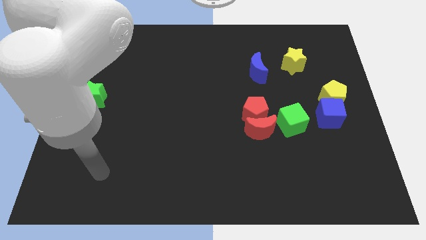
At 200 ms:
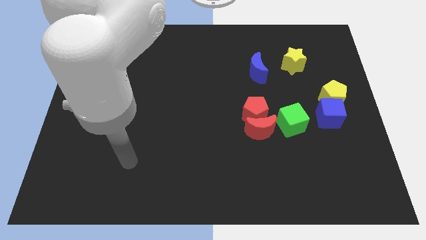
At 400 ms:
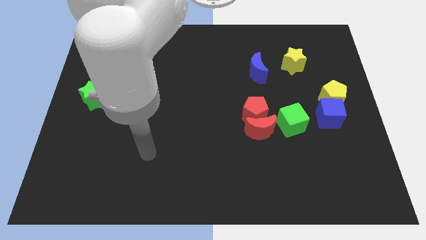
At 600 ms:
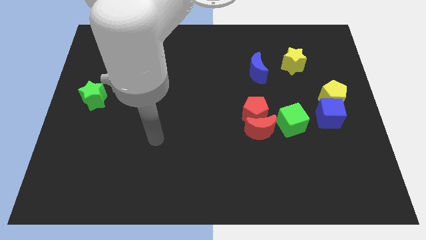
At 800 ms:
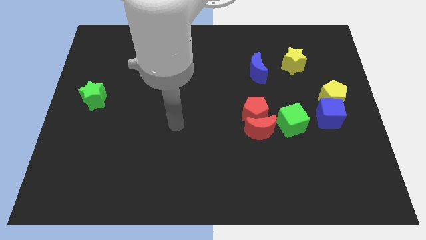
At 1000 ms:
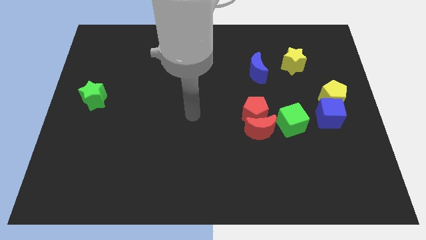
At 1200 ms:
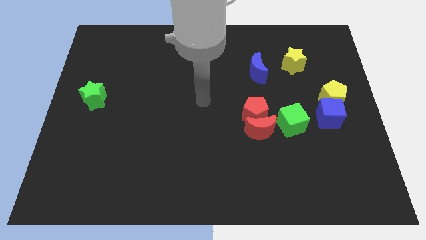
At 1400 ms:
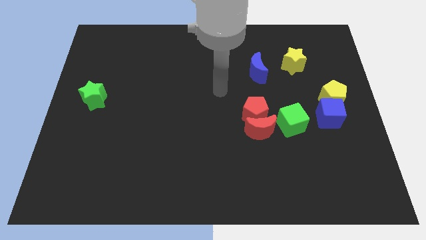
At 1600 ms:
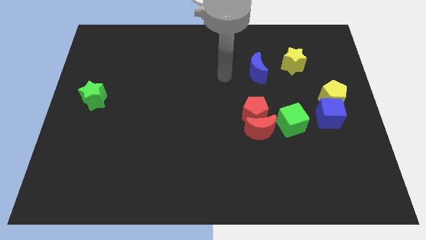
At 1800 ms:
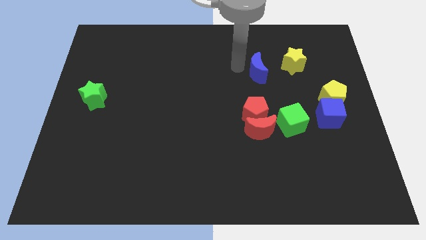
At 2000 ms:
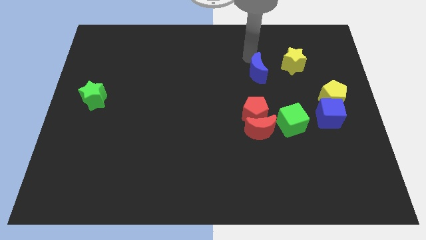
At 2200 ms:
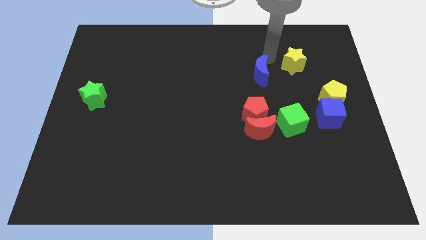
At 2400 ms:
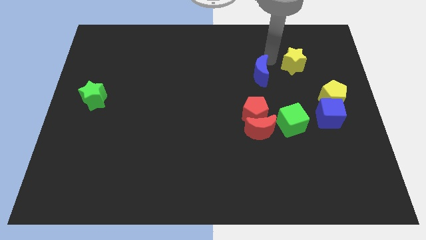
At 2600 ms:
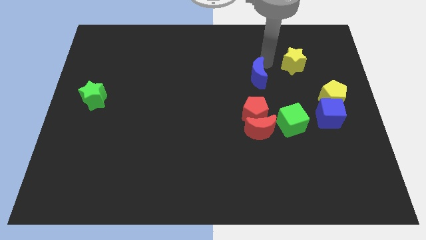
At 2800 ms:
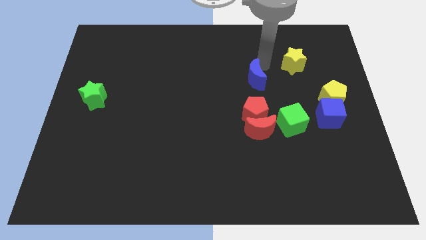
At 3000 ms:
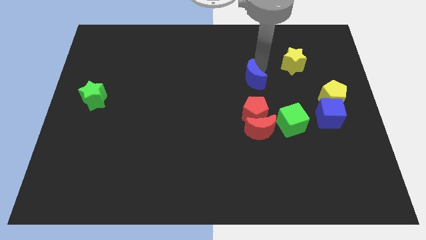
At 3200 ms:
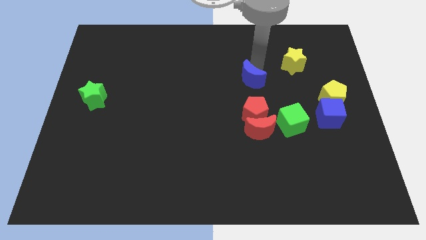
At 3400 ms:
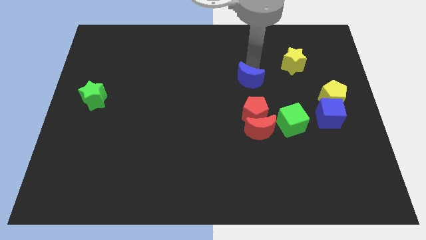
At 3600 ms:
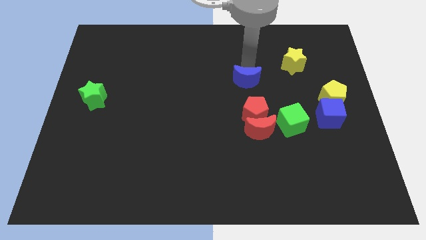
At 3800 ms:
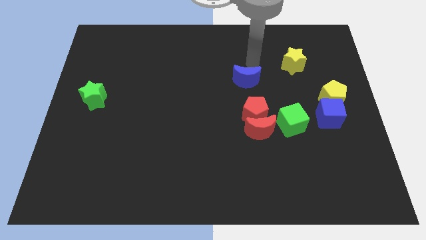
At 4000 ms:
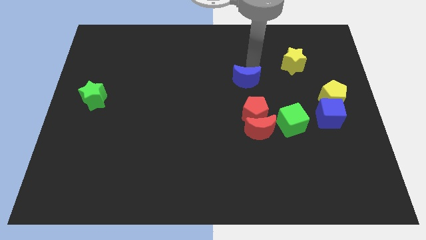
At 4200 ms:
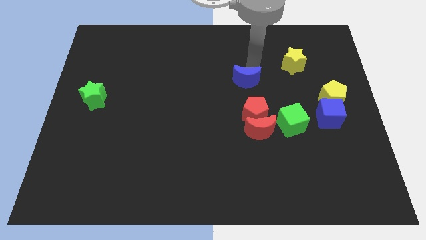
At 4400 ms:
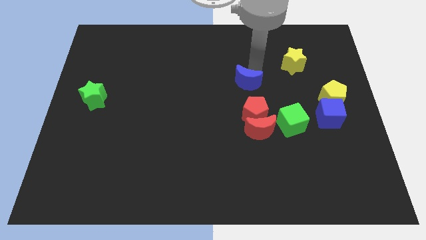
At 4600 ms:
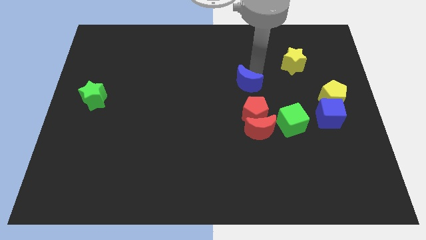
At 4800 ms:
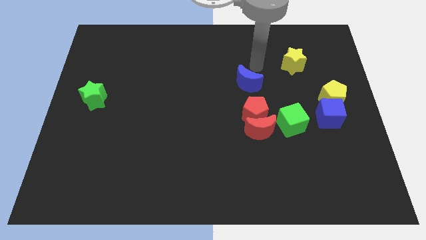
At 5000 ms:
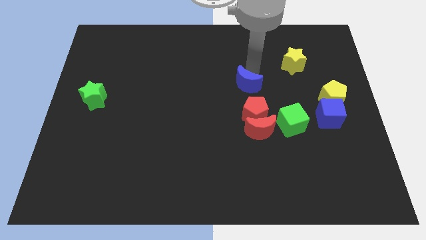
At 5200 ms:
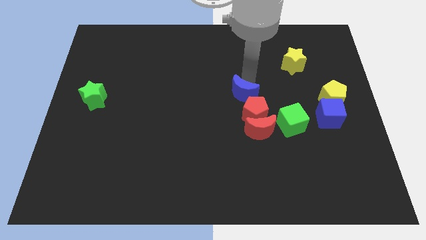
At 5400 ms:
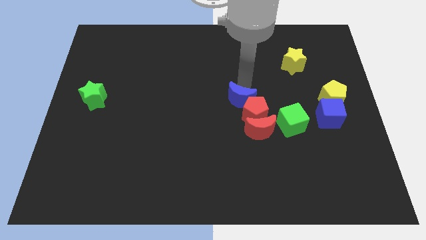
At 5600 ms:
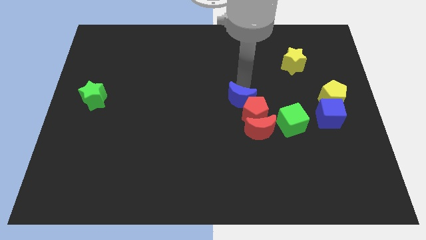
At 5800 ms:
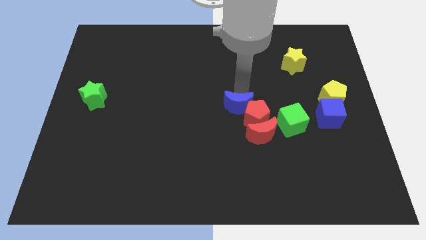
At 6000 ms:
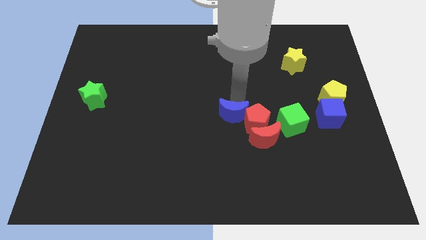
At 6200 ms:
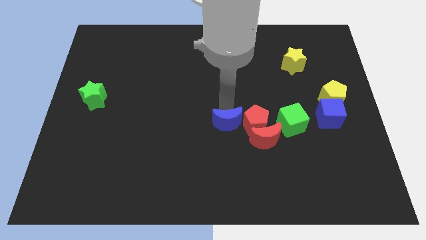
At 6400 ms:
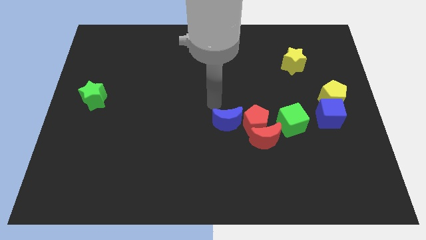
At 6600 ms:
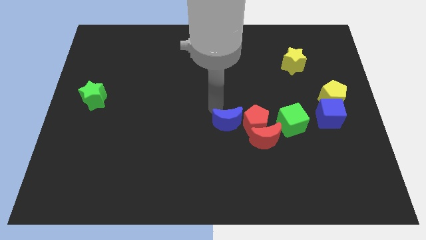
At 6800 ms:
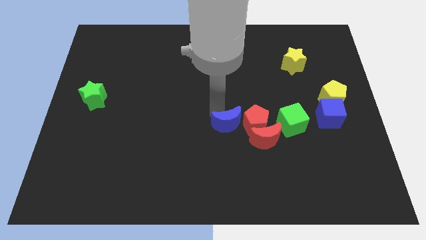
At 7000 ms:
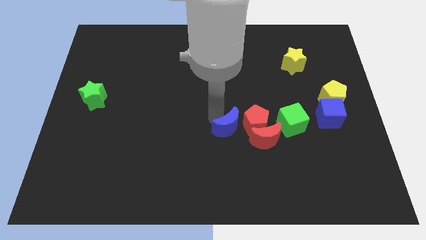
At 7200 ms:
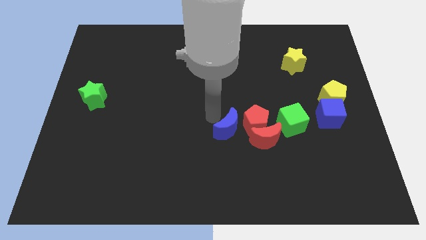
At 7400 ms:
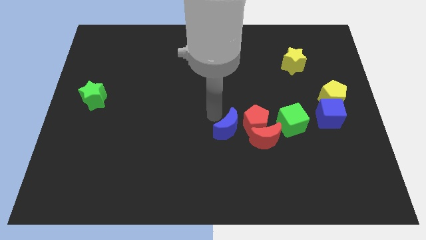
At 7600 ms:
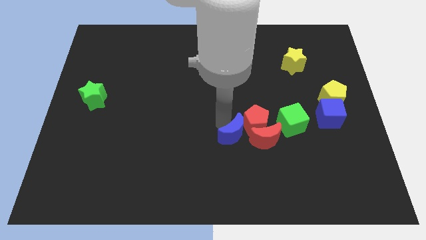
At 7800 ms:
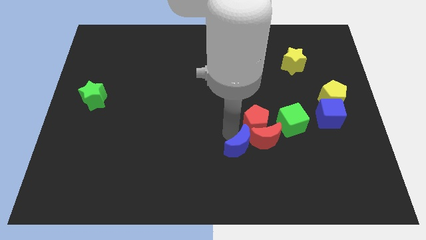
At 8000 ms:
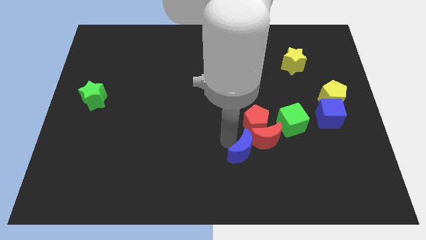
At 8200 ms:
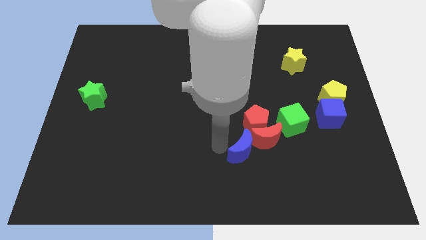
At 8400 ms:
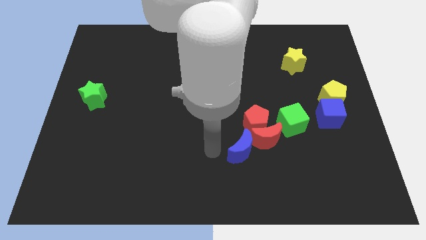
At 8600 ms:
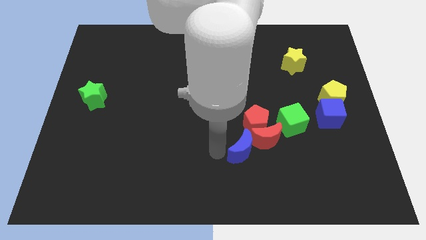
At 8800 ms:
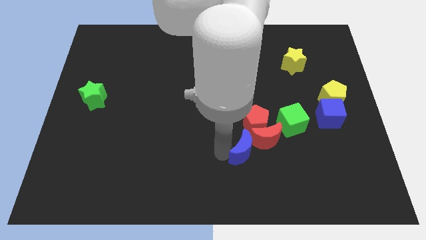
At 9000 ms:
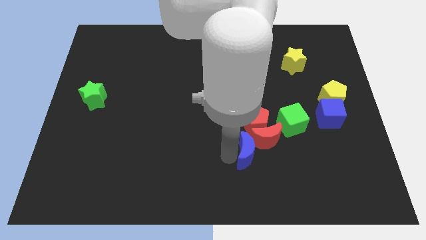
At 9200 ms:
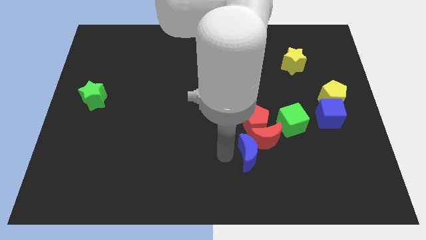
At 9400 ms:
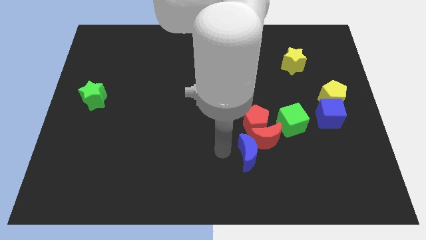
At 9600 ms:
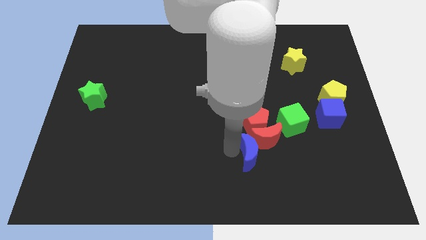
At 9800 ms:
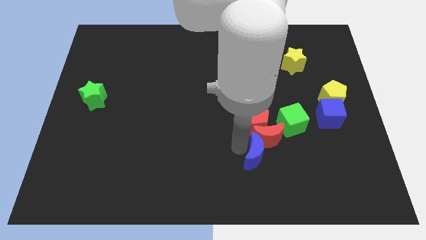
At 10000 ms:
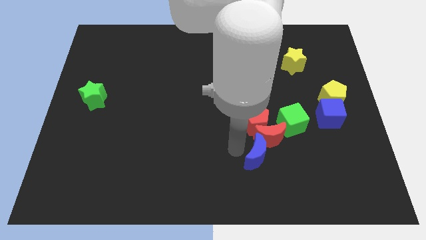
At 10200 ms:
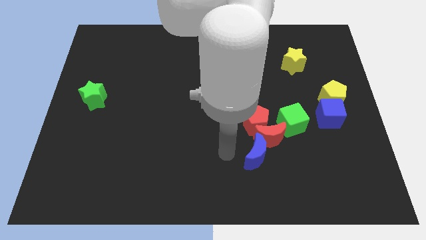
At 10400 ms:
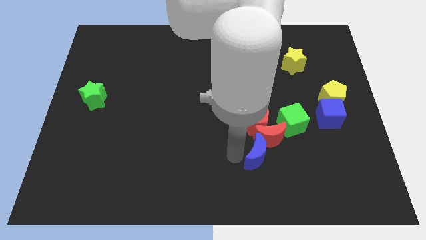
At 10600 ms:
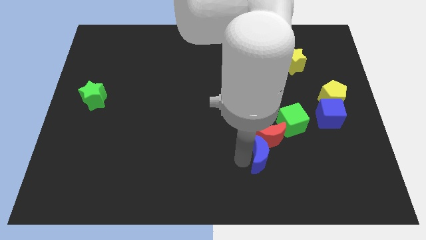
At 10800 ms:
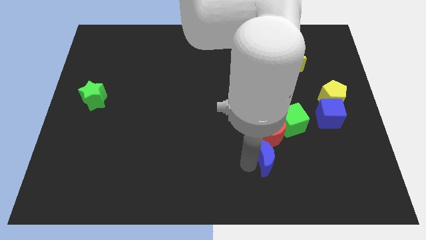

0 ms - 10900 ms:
put the blue moon diagonally down and to the right of the red moon

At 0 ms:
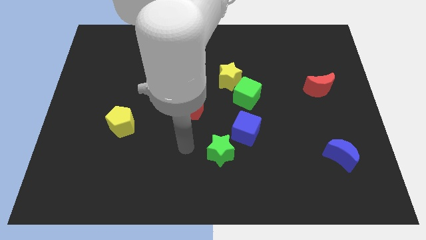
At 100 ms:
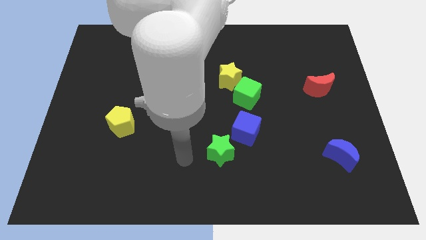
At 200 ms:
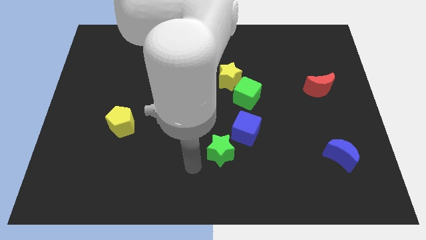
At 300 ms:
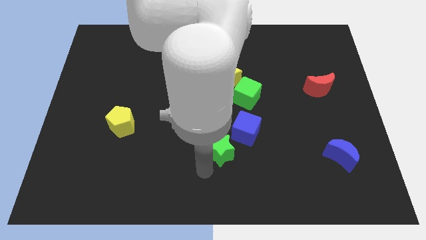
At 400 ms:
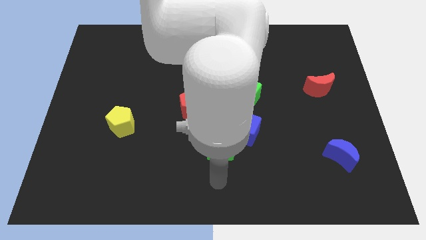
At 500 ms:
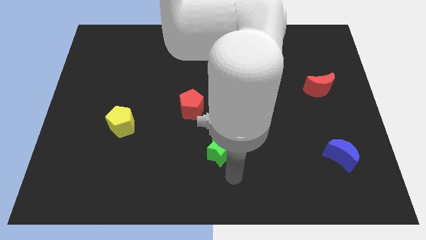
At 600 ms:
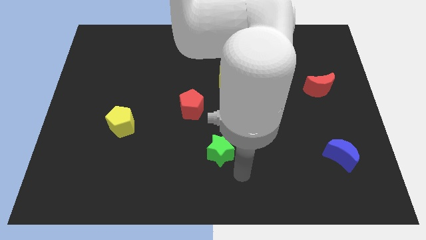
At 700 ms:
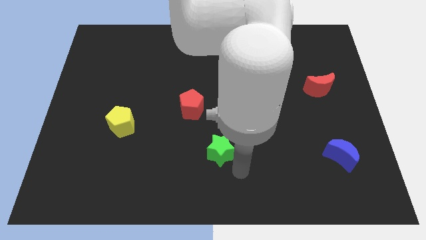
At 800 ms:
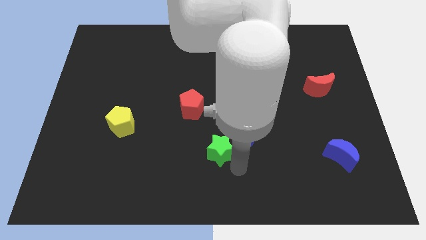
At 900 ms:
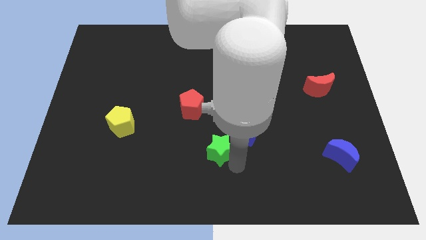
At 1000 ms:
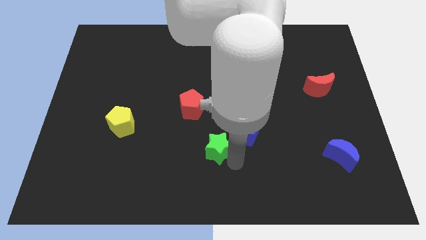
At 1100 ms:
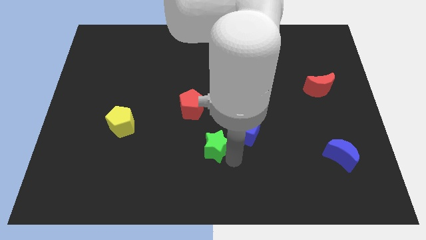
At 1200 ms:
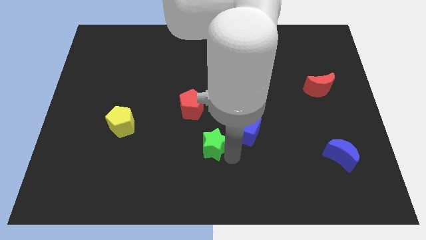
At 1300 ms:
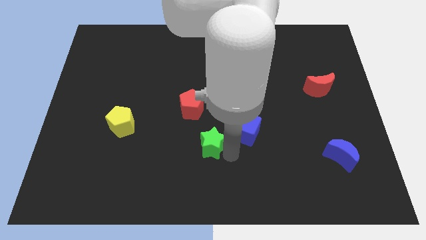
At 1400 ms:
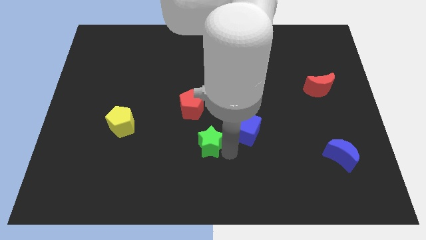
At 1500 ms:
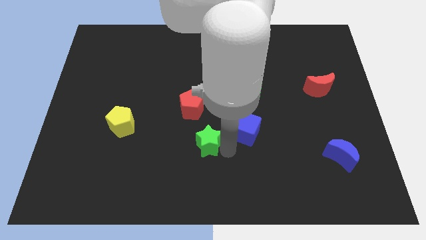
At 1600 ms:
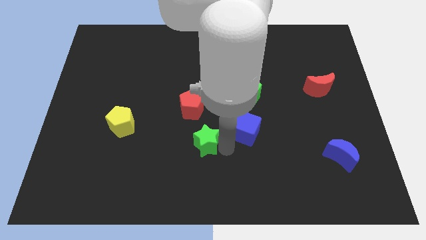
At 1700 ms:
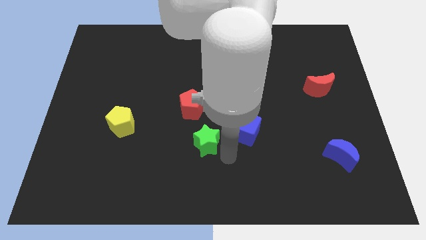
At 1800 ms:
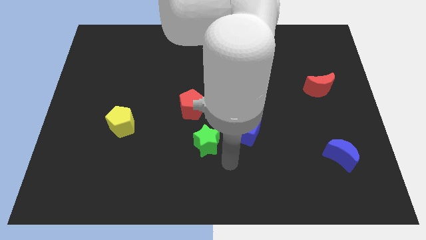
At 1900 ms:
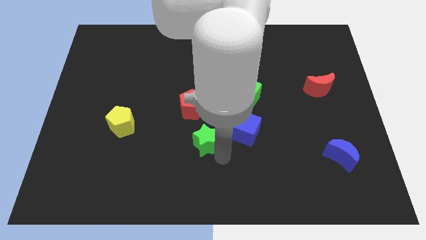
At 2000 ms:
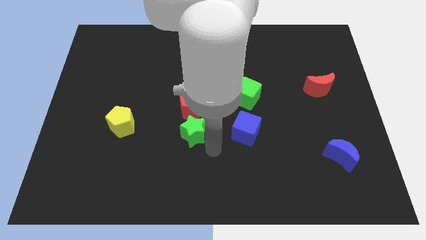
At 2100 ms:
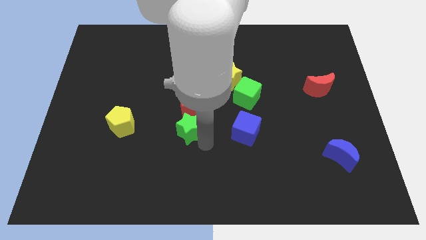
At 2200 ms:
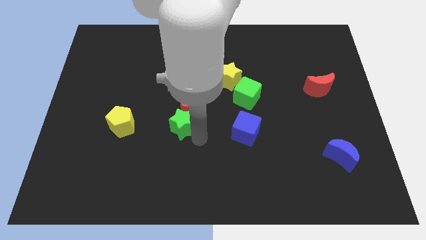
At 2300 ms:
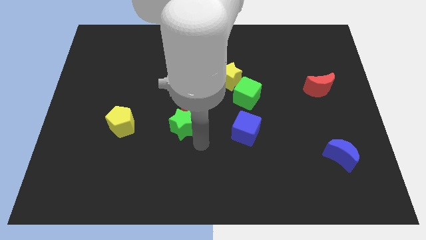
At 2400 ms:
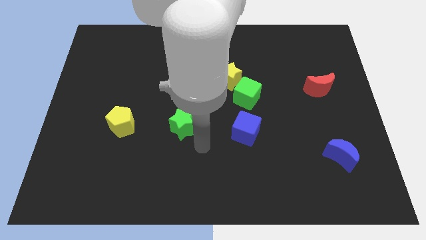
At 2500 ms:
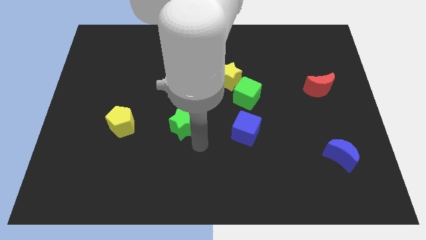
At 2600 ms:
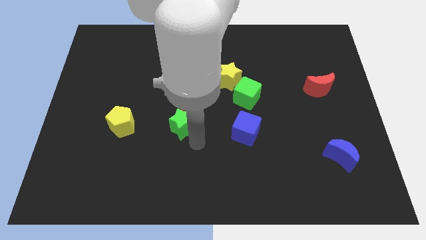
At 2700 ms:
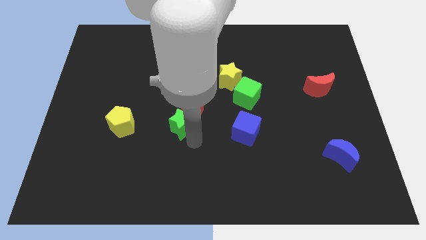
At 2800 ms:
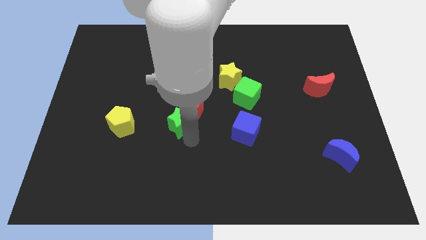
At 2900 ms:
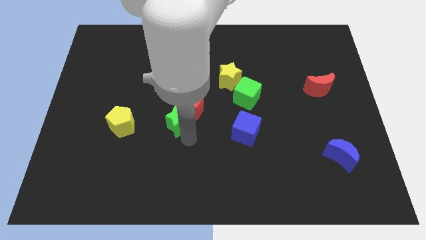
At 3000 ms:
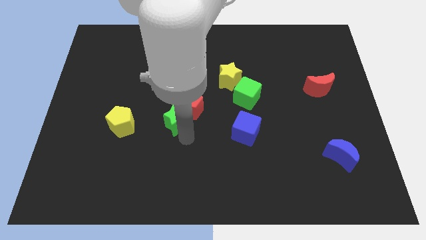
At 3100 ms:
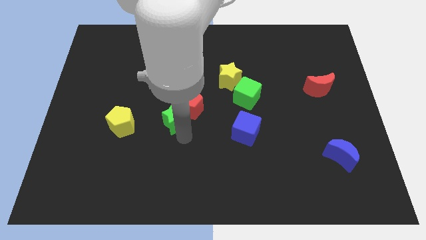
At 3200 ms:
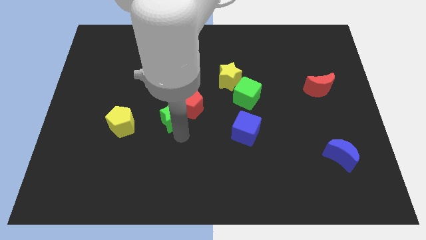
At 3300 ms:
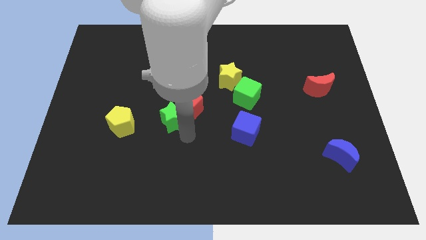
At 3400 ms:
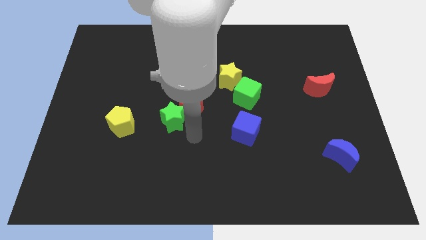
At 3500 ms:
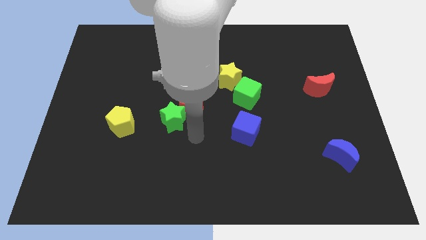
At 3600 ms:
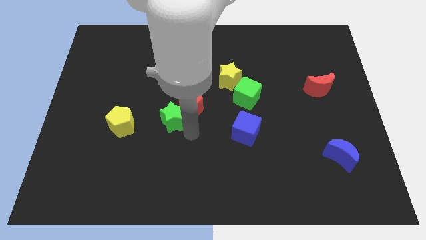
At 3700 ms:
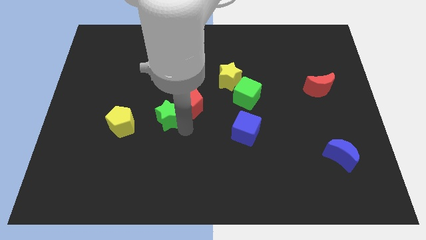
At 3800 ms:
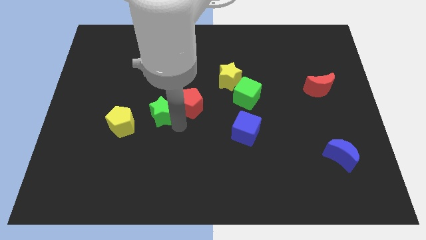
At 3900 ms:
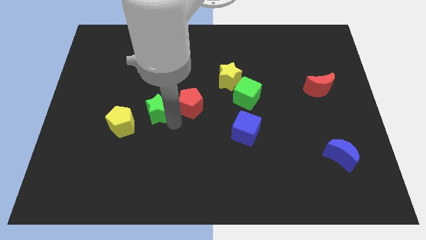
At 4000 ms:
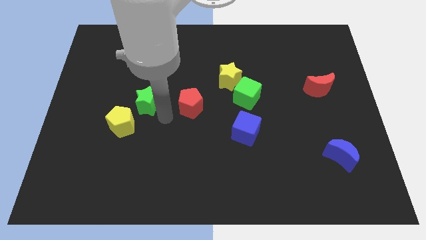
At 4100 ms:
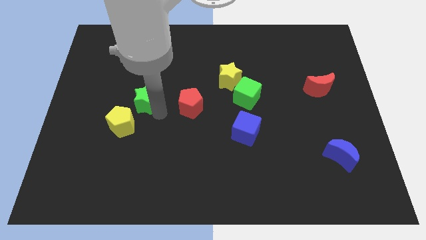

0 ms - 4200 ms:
put the green star above the yellow pentagon
